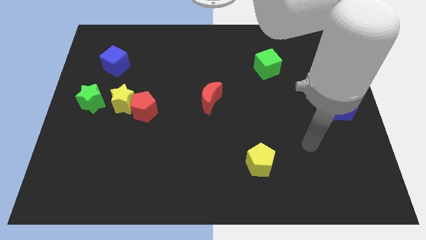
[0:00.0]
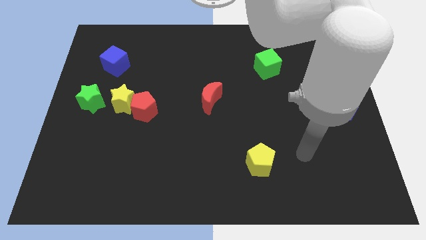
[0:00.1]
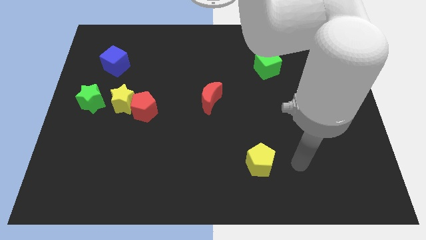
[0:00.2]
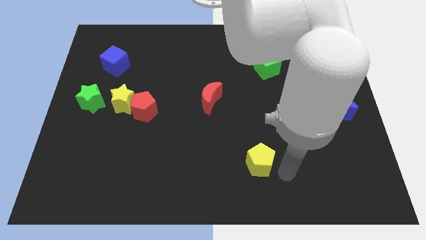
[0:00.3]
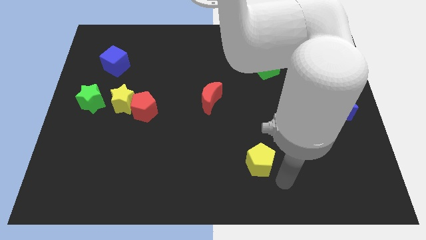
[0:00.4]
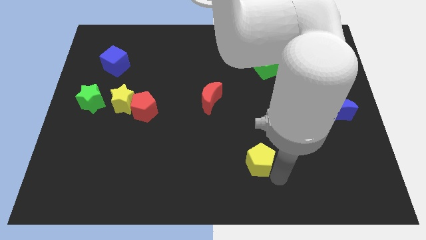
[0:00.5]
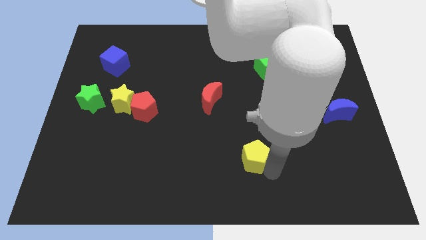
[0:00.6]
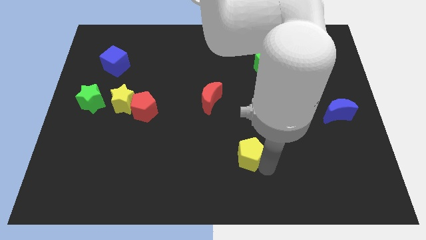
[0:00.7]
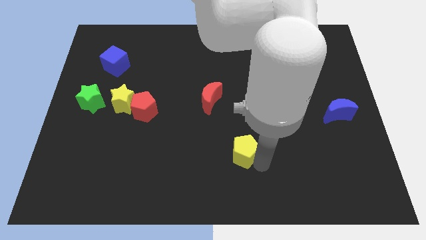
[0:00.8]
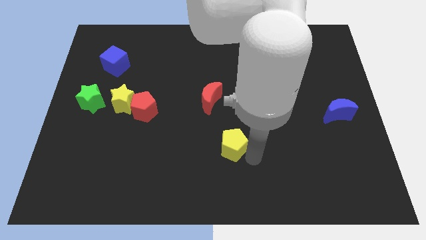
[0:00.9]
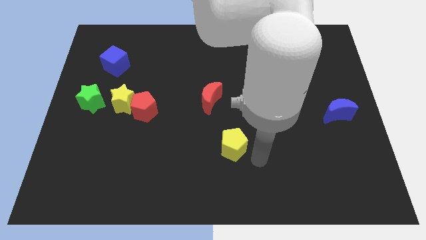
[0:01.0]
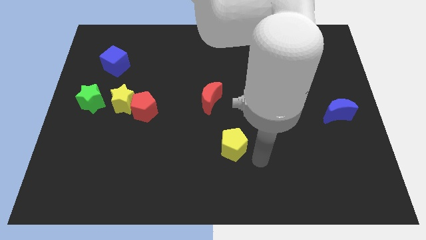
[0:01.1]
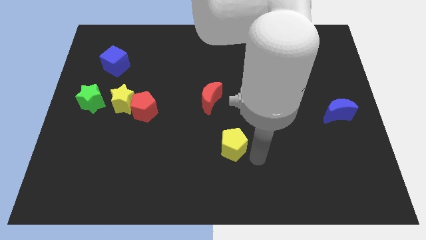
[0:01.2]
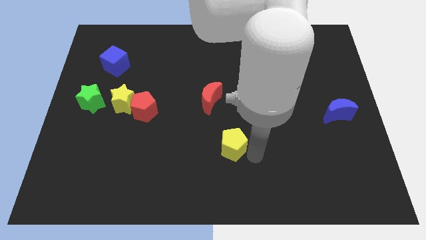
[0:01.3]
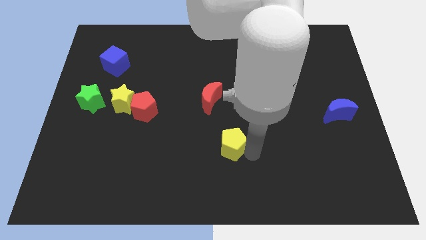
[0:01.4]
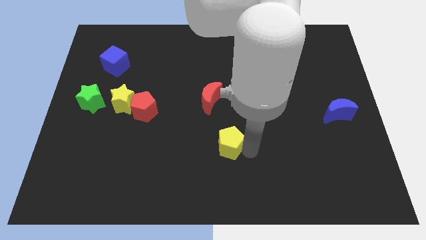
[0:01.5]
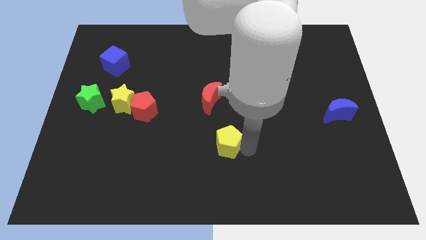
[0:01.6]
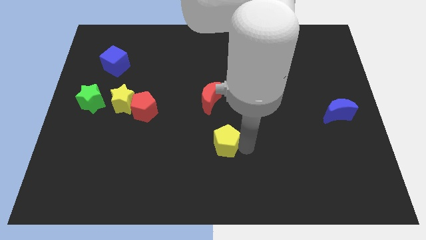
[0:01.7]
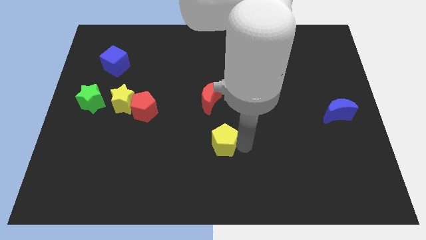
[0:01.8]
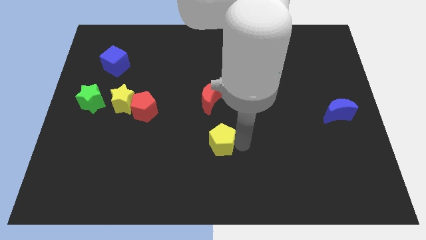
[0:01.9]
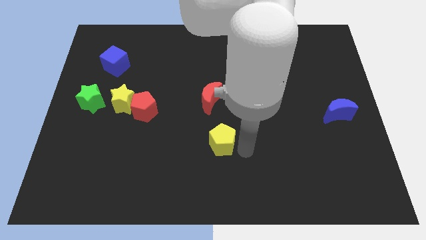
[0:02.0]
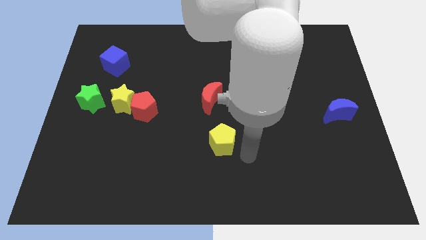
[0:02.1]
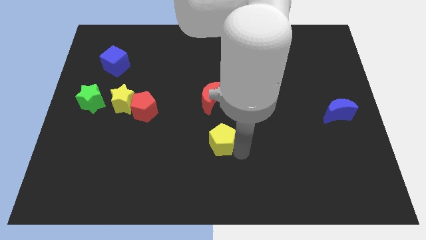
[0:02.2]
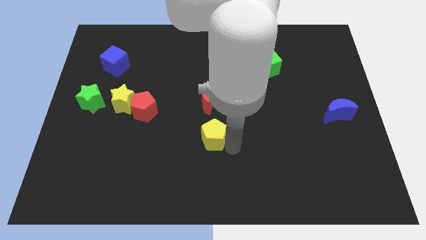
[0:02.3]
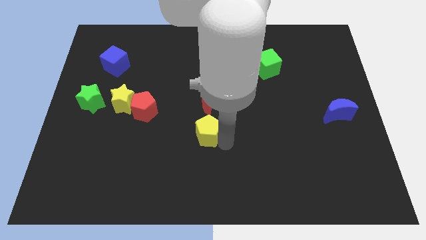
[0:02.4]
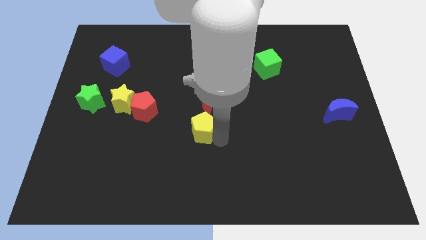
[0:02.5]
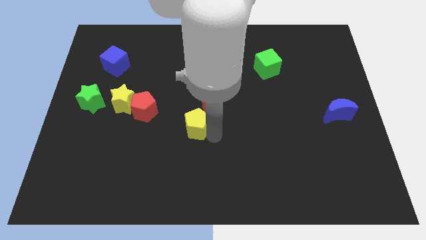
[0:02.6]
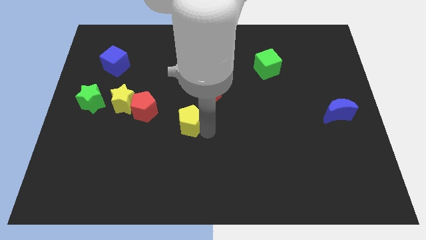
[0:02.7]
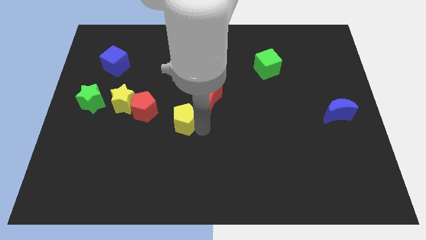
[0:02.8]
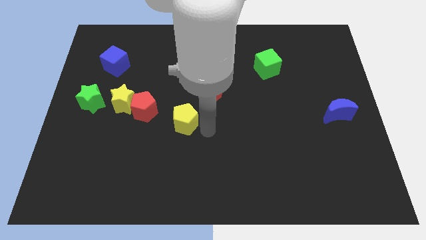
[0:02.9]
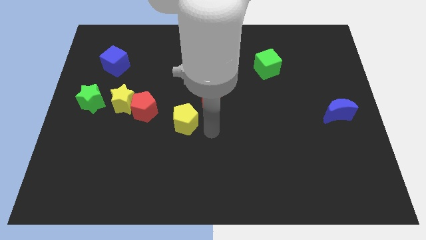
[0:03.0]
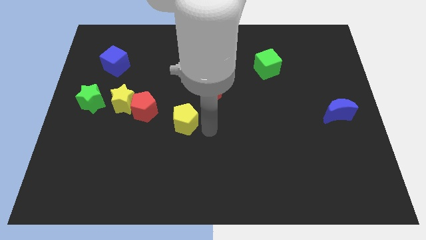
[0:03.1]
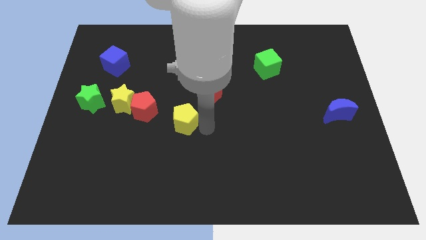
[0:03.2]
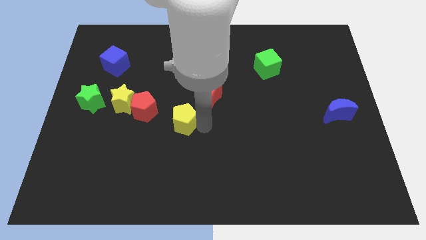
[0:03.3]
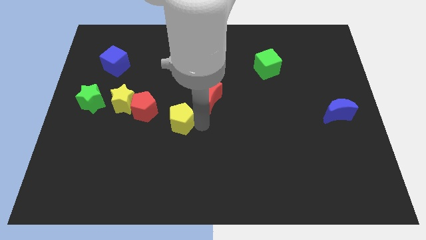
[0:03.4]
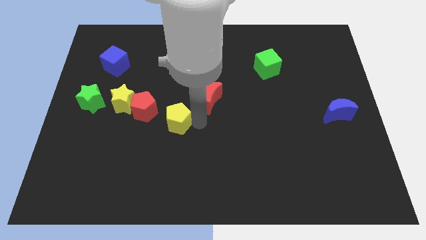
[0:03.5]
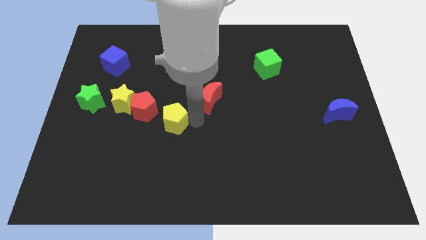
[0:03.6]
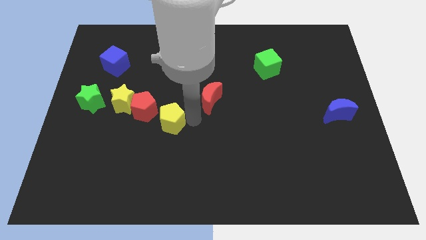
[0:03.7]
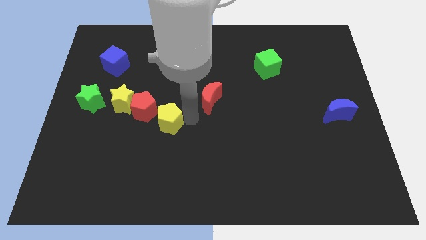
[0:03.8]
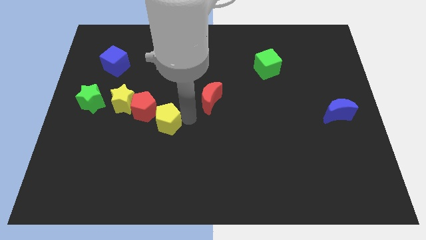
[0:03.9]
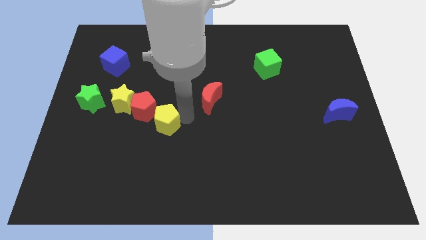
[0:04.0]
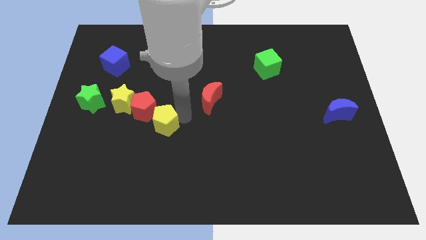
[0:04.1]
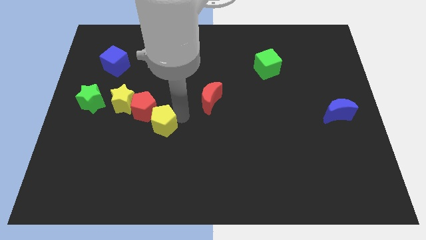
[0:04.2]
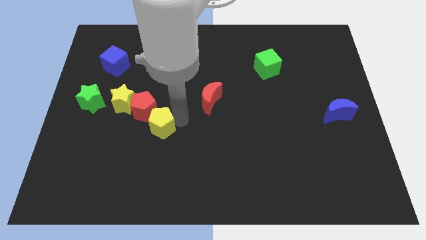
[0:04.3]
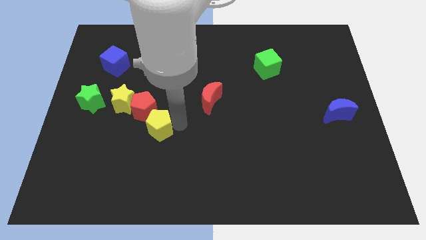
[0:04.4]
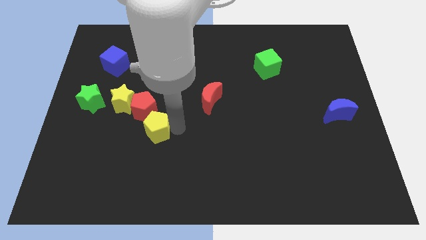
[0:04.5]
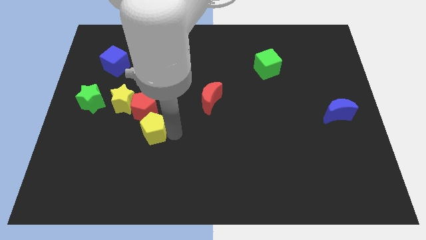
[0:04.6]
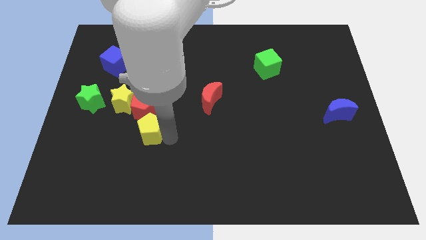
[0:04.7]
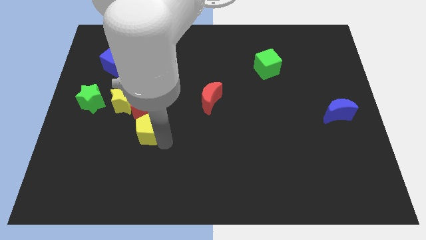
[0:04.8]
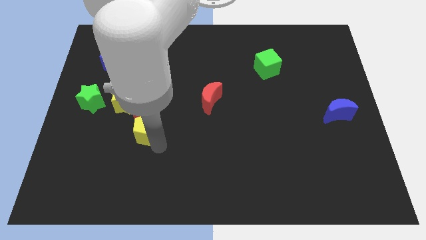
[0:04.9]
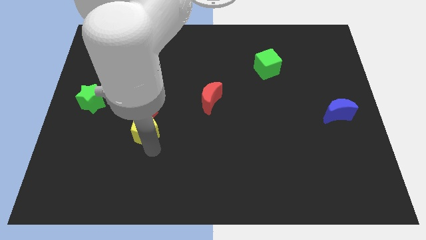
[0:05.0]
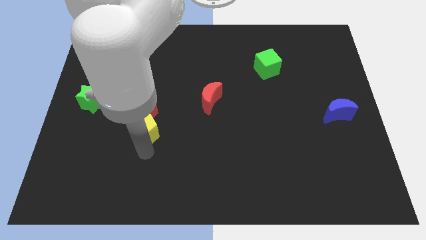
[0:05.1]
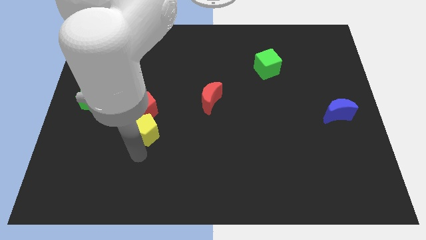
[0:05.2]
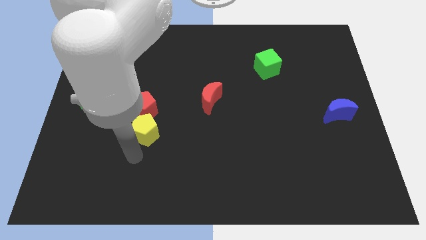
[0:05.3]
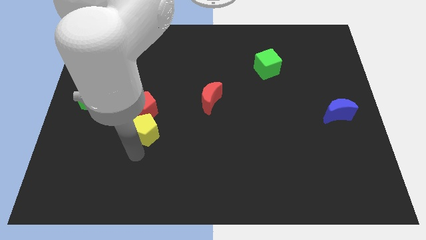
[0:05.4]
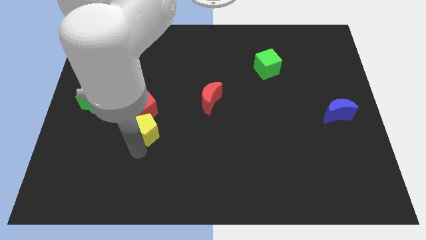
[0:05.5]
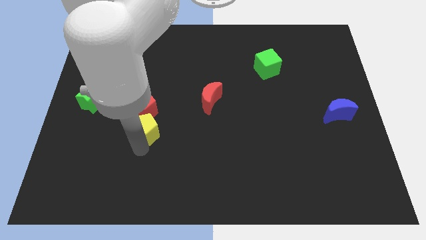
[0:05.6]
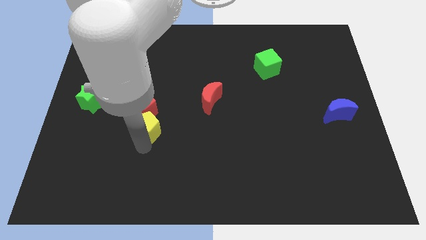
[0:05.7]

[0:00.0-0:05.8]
move the yellow pentagon towards the red pentagon
